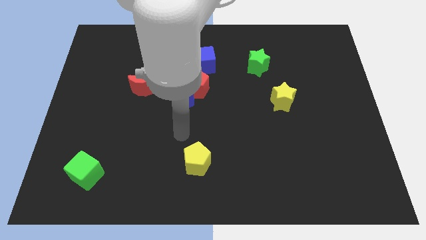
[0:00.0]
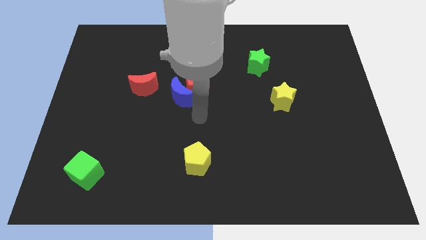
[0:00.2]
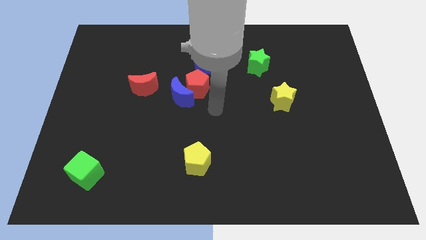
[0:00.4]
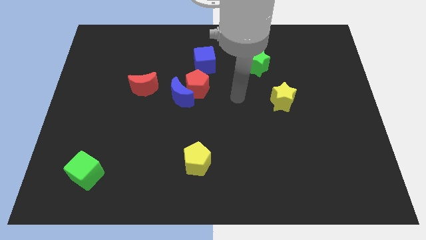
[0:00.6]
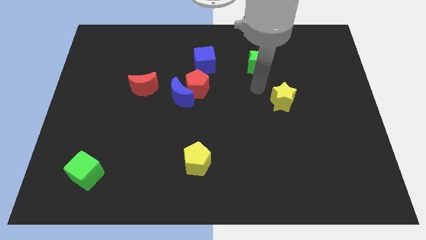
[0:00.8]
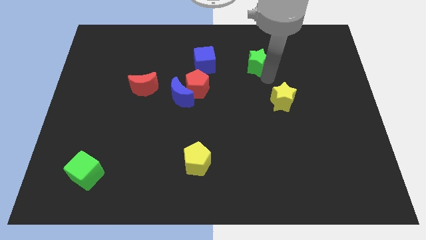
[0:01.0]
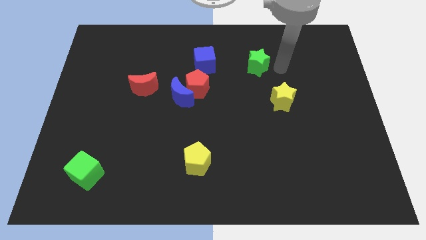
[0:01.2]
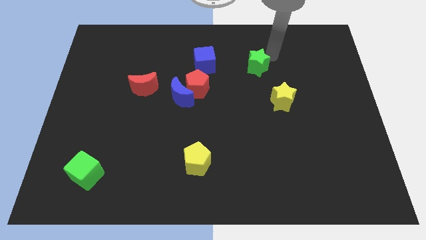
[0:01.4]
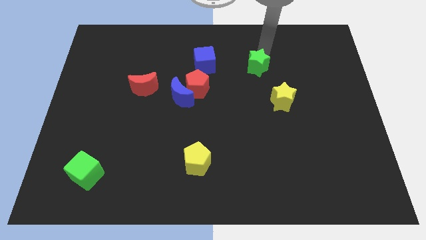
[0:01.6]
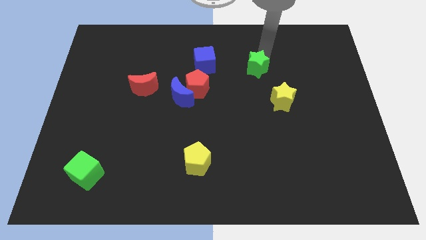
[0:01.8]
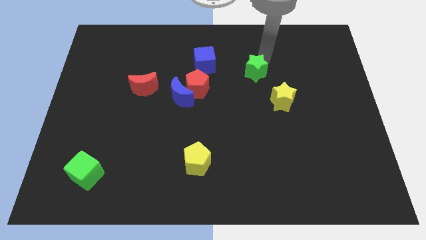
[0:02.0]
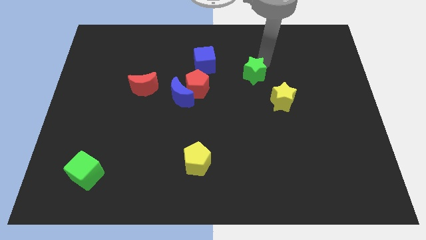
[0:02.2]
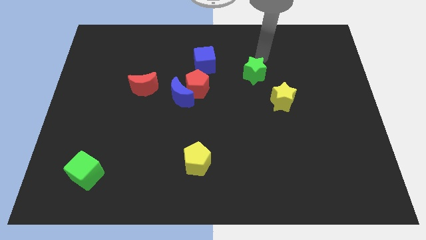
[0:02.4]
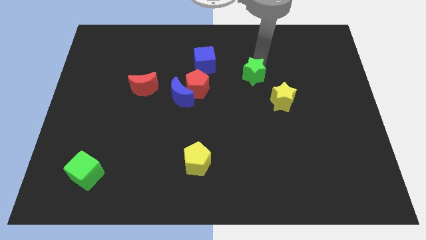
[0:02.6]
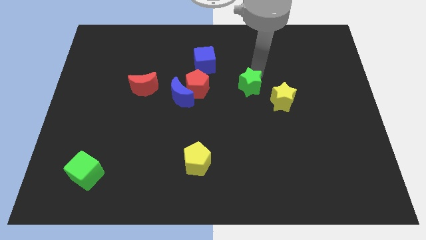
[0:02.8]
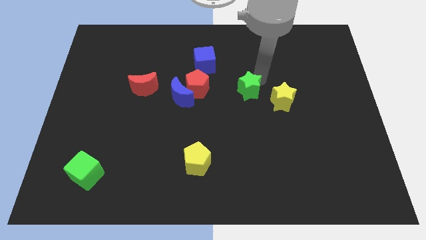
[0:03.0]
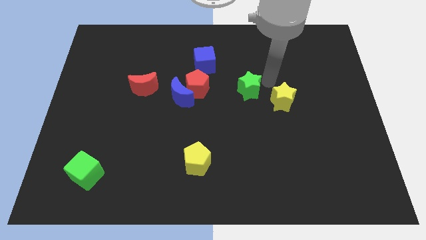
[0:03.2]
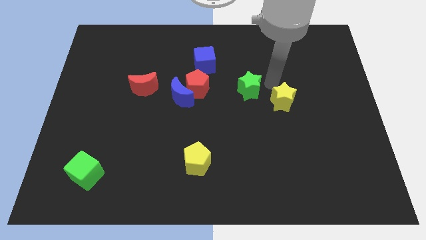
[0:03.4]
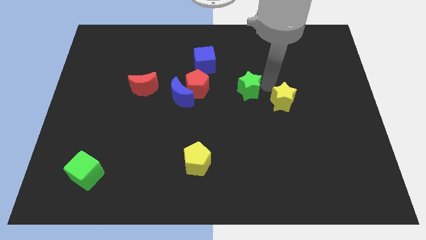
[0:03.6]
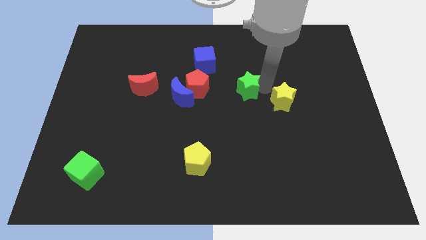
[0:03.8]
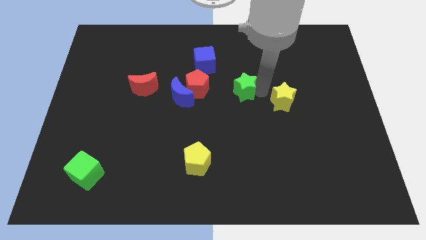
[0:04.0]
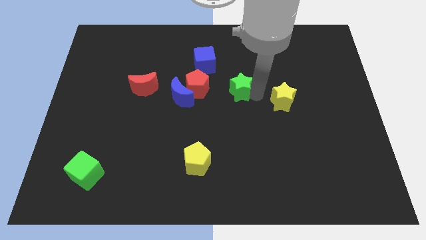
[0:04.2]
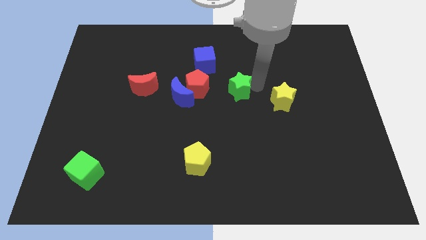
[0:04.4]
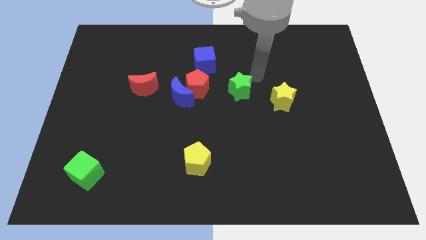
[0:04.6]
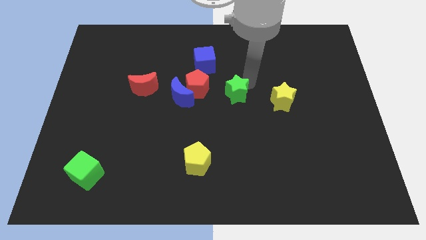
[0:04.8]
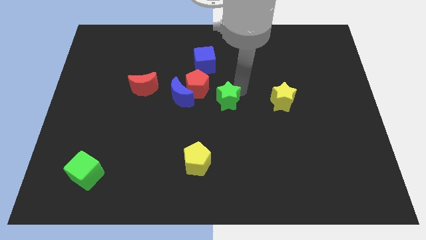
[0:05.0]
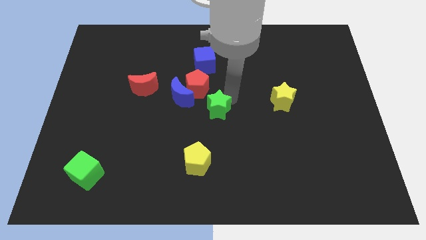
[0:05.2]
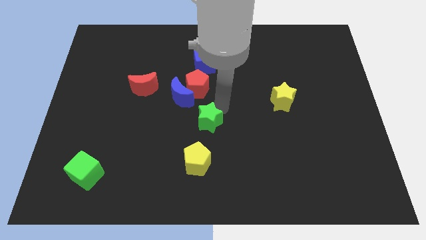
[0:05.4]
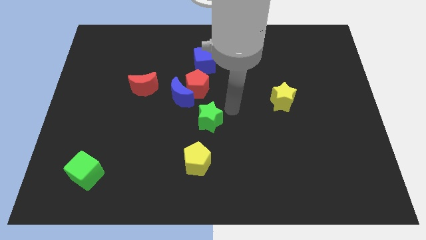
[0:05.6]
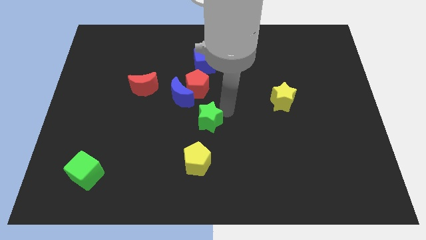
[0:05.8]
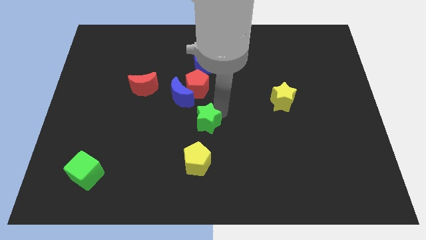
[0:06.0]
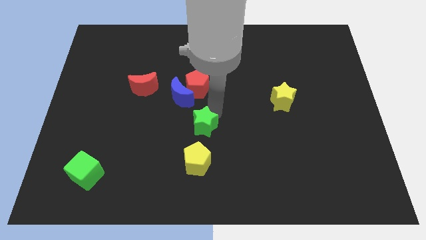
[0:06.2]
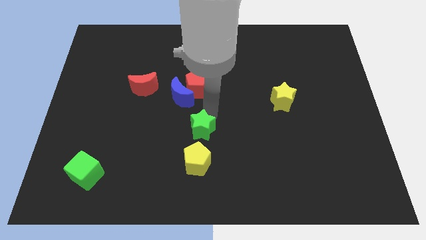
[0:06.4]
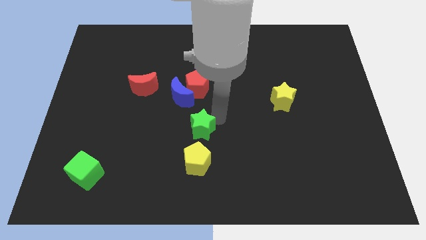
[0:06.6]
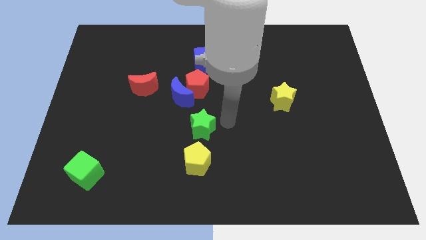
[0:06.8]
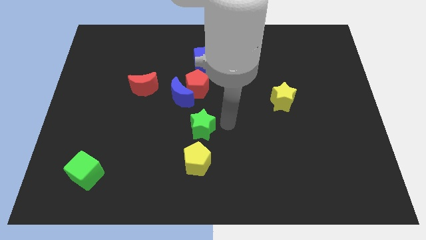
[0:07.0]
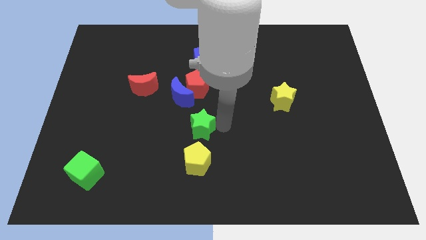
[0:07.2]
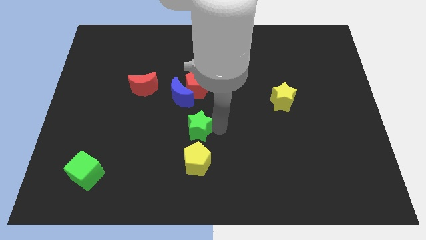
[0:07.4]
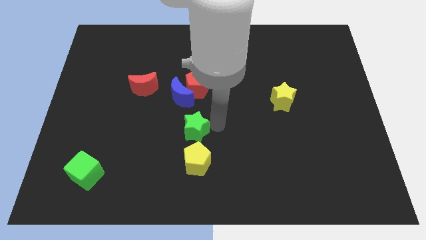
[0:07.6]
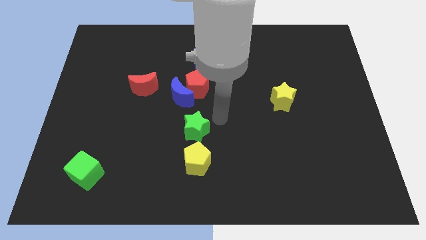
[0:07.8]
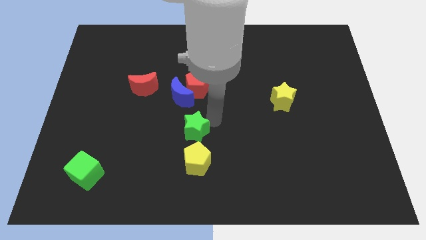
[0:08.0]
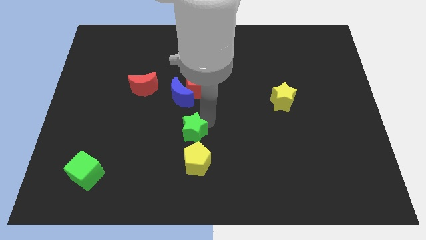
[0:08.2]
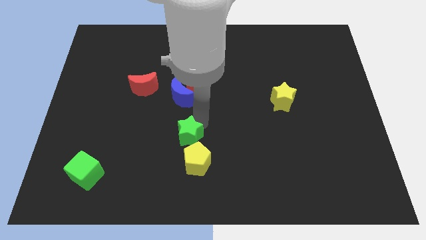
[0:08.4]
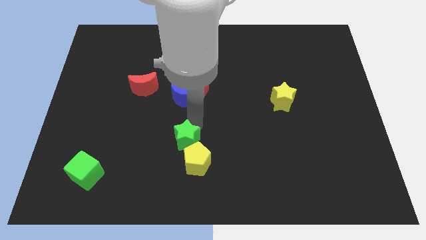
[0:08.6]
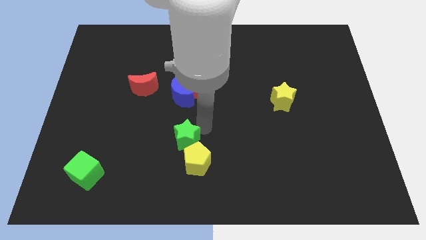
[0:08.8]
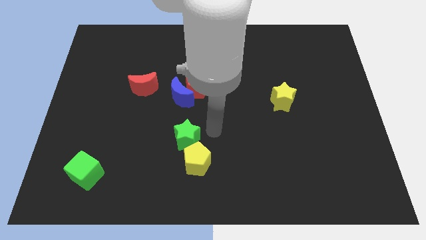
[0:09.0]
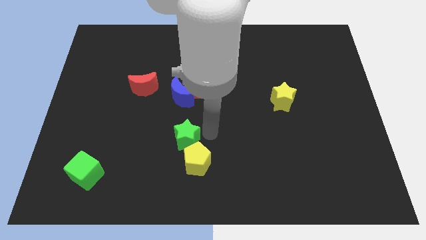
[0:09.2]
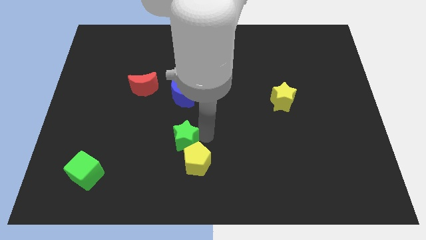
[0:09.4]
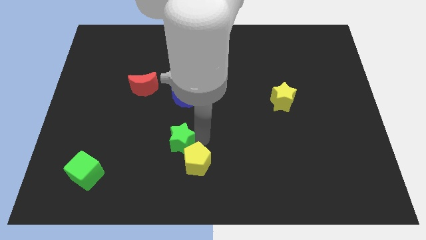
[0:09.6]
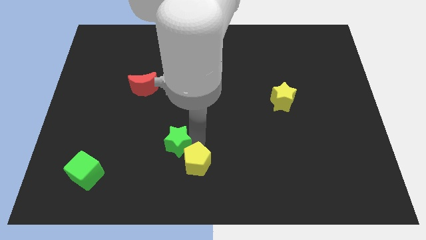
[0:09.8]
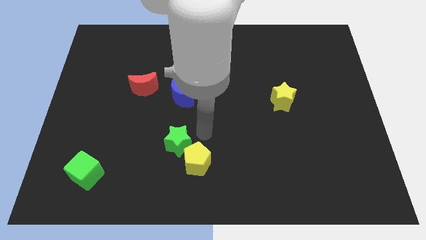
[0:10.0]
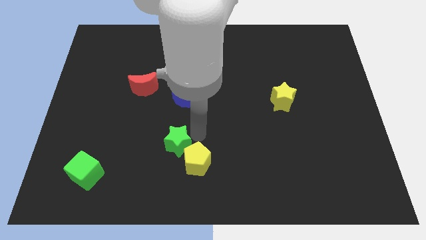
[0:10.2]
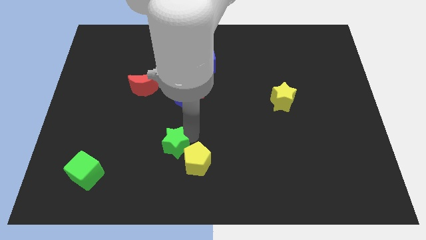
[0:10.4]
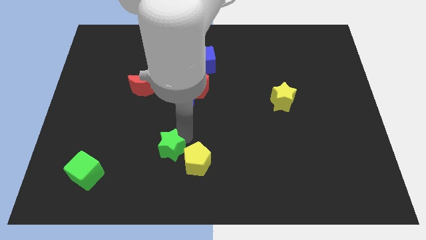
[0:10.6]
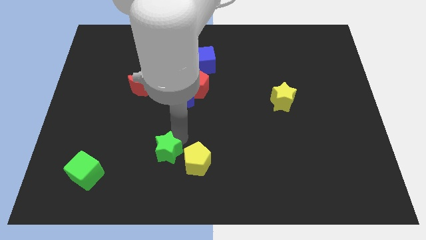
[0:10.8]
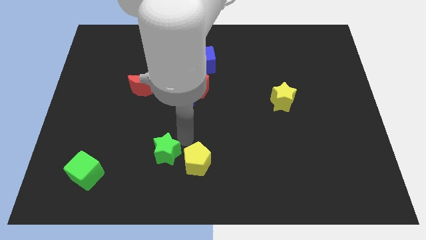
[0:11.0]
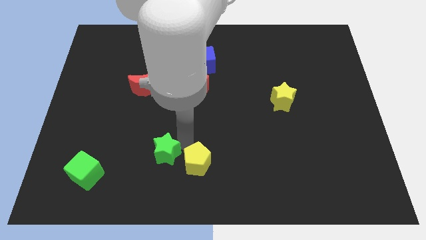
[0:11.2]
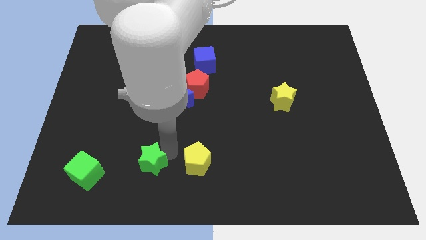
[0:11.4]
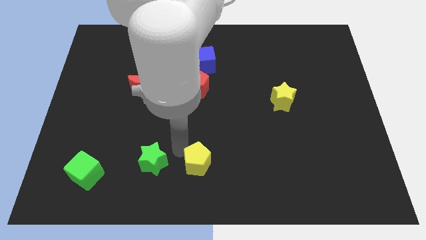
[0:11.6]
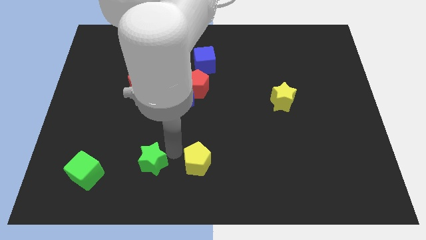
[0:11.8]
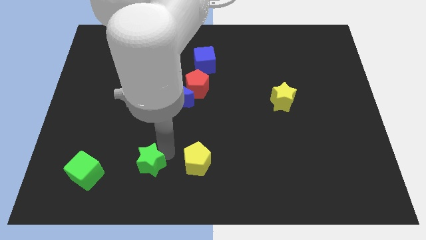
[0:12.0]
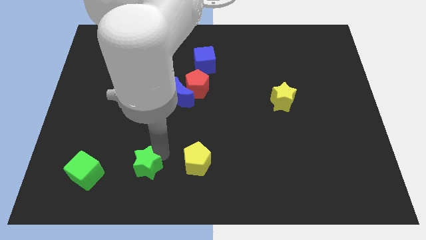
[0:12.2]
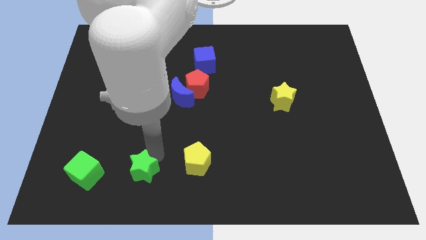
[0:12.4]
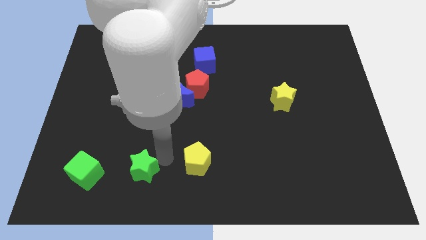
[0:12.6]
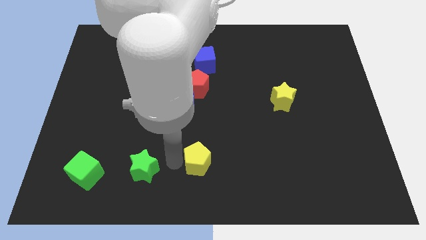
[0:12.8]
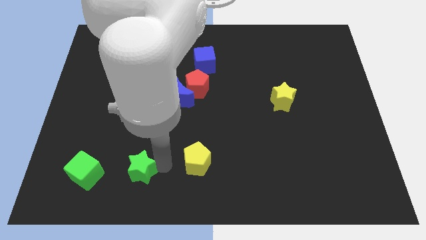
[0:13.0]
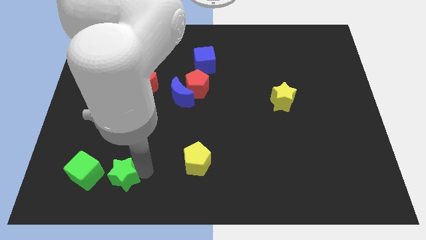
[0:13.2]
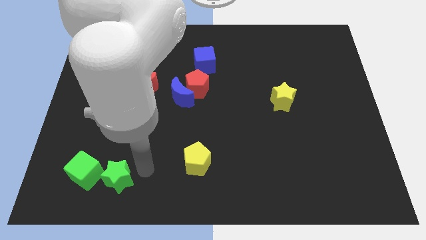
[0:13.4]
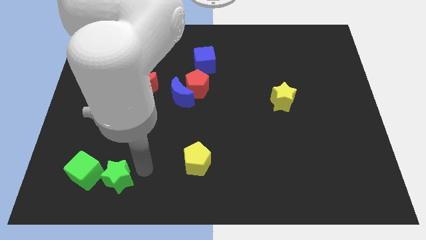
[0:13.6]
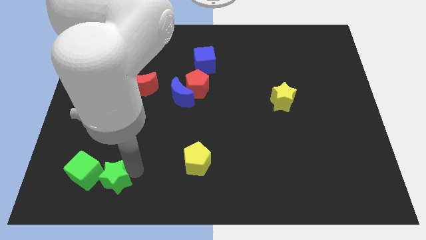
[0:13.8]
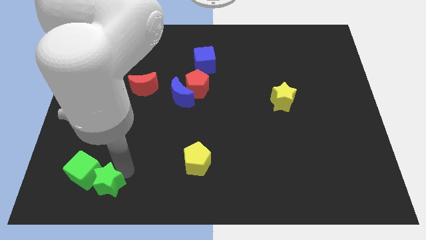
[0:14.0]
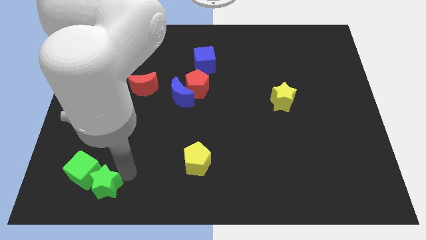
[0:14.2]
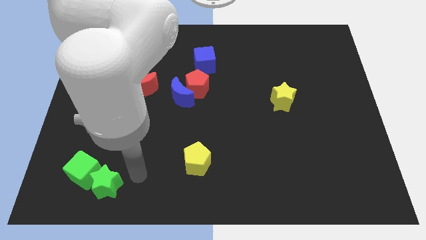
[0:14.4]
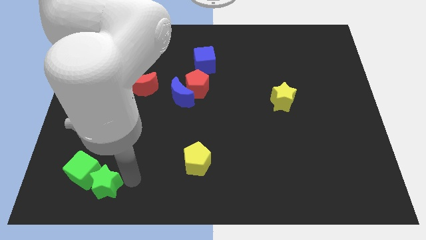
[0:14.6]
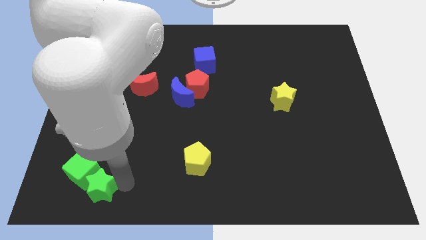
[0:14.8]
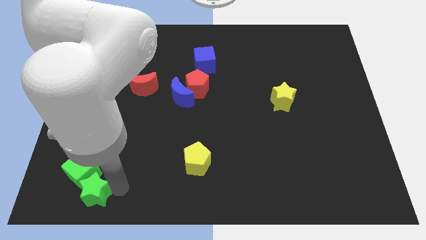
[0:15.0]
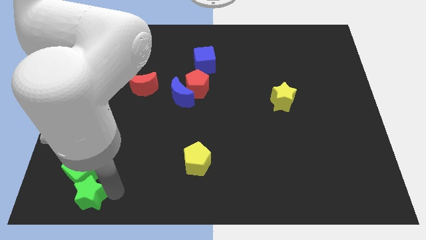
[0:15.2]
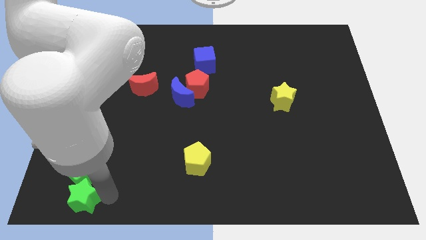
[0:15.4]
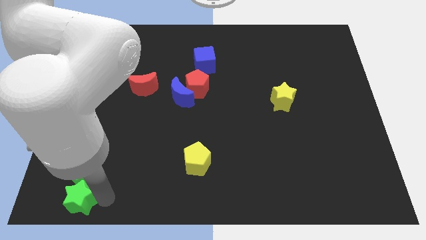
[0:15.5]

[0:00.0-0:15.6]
push the green star to the bottom left
